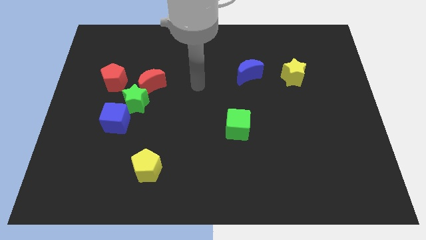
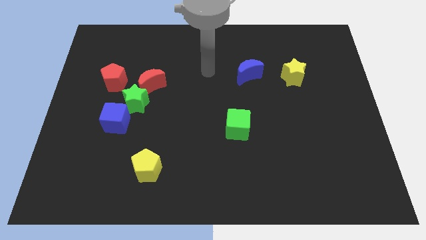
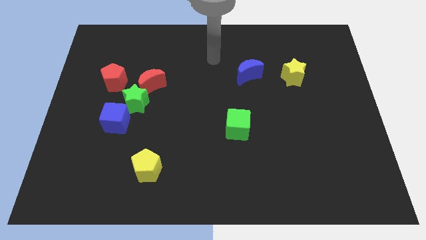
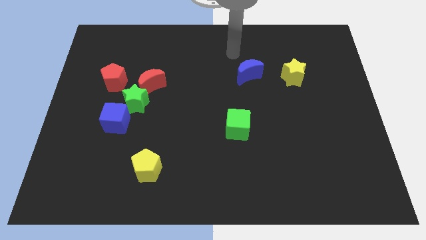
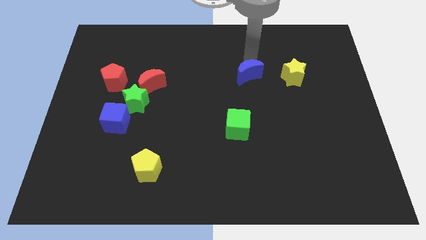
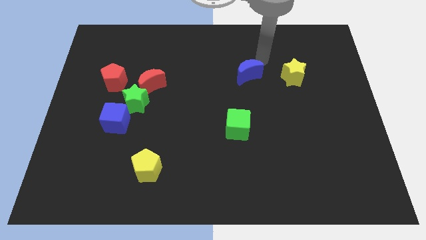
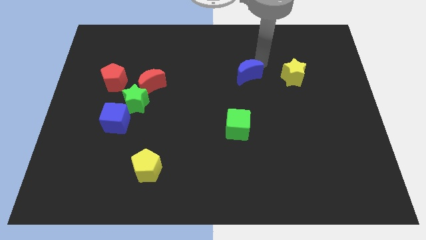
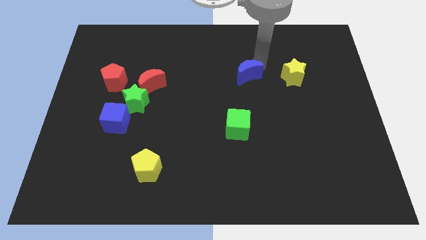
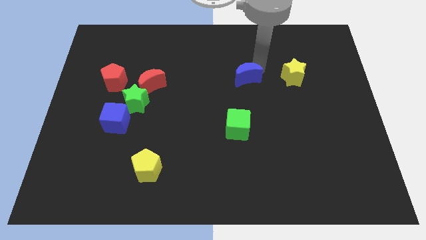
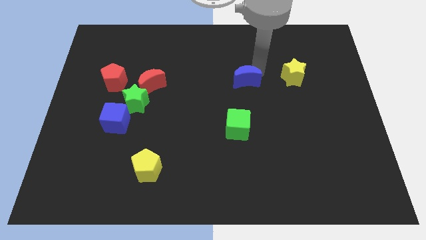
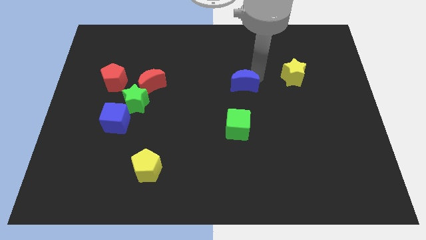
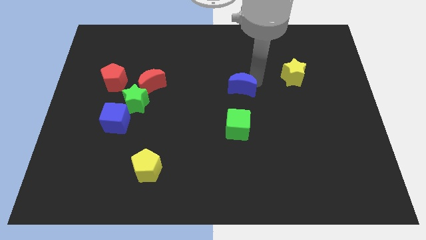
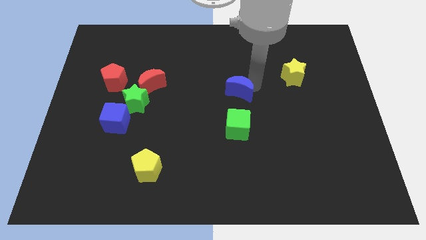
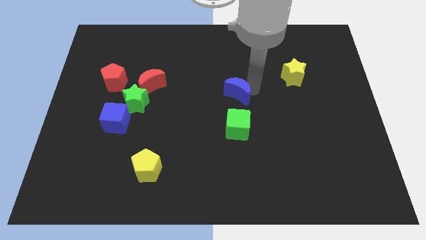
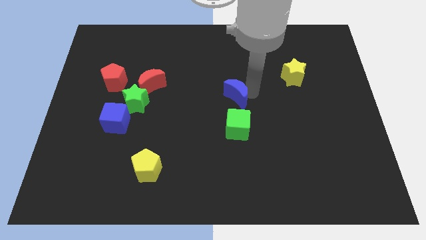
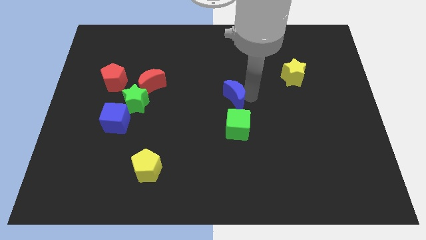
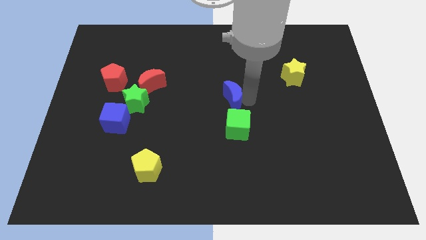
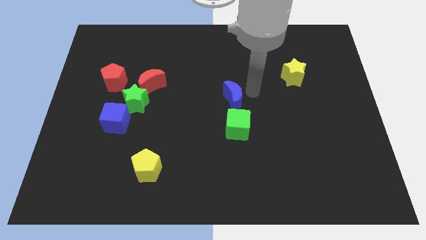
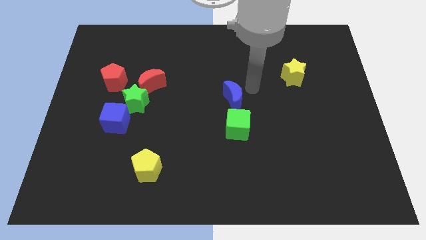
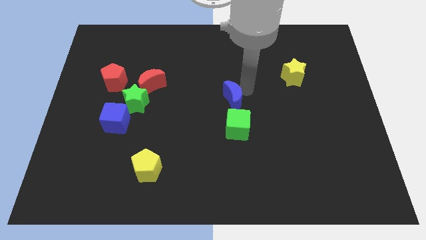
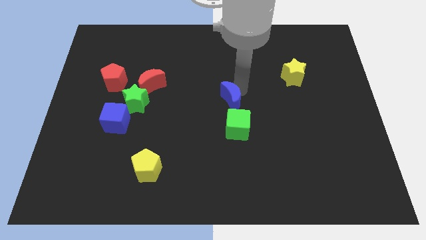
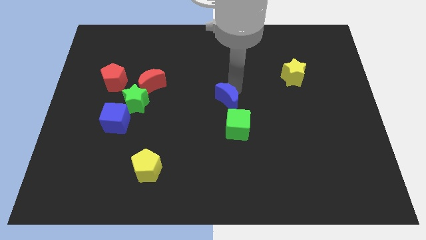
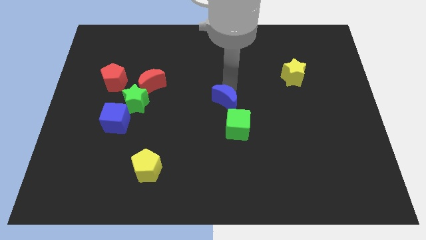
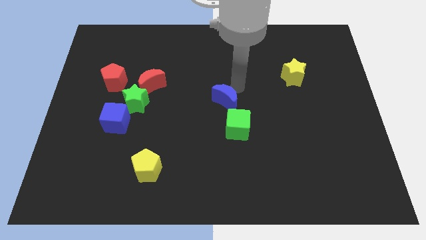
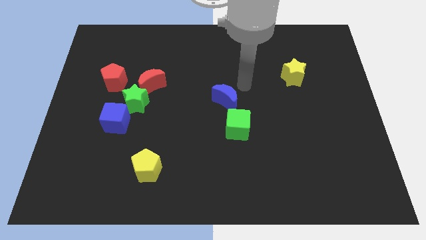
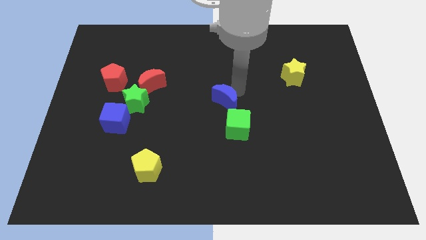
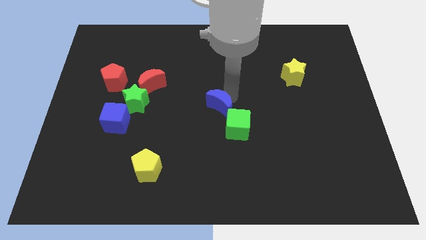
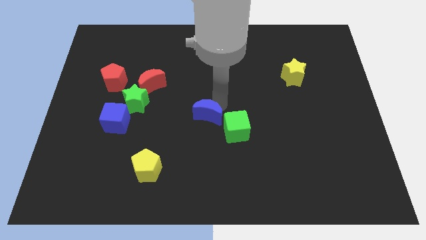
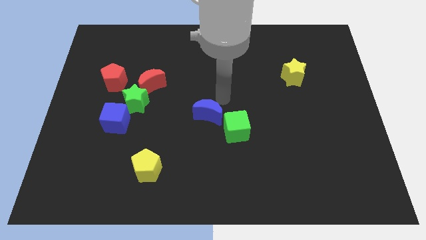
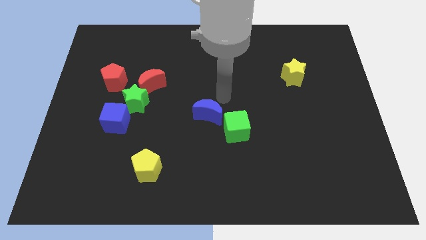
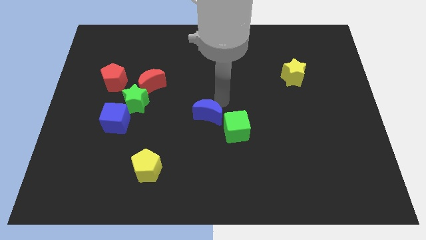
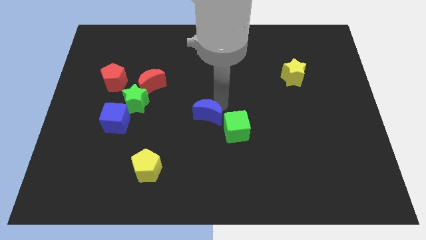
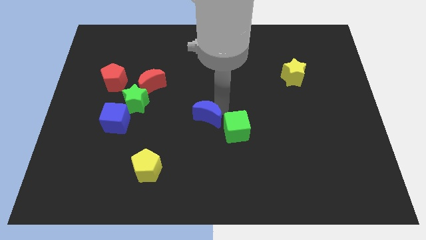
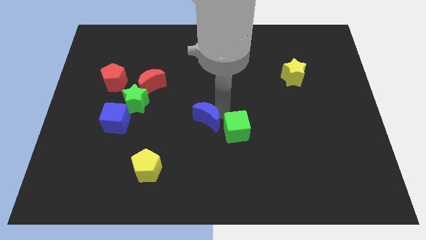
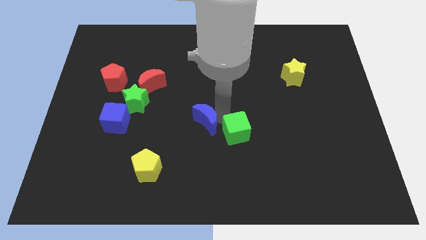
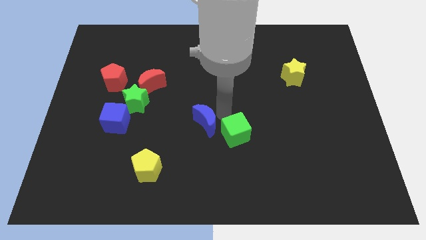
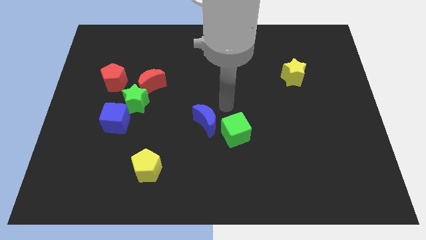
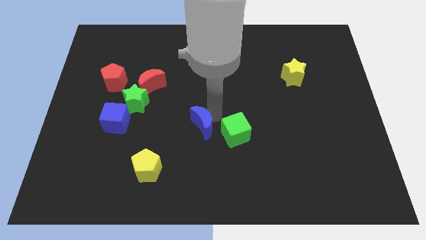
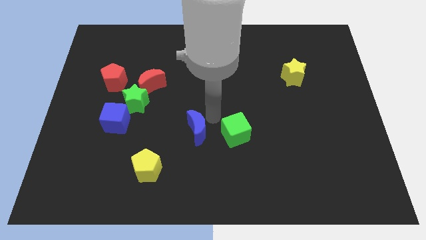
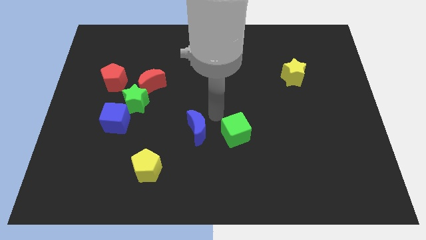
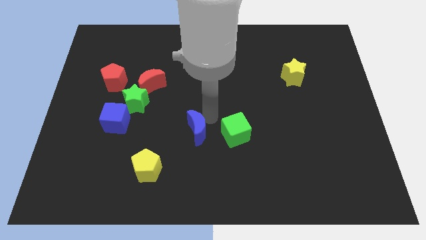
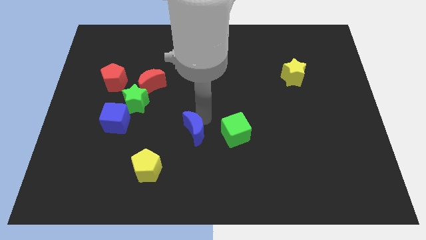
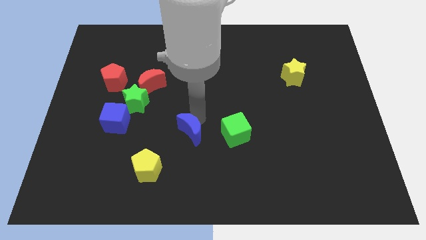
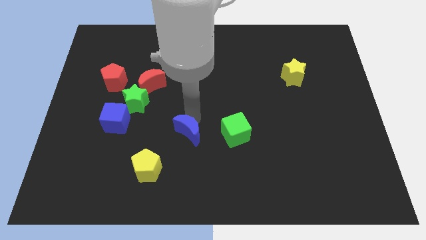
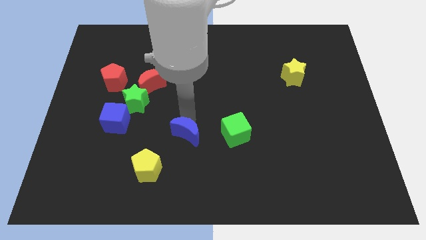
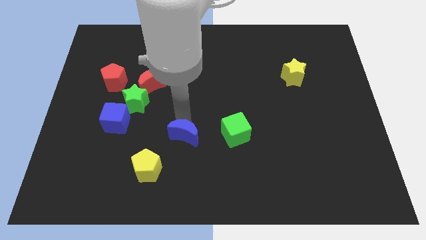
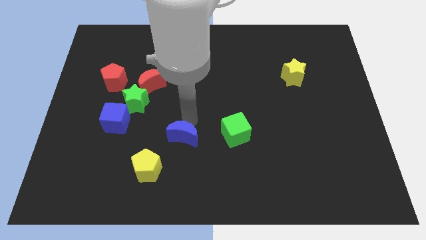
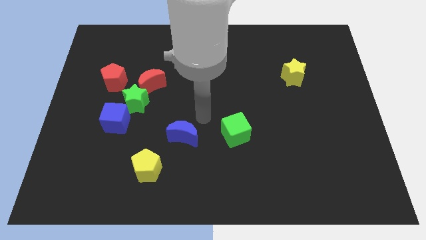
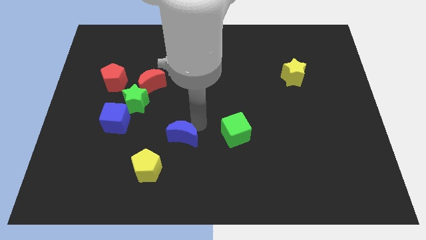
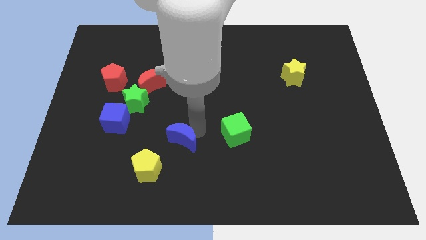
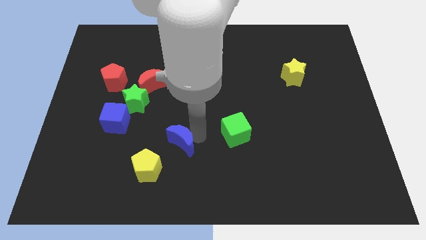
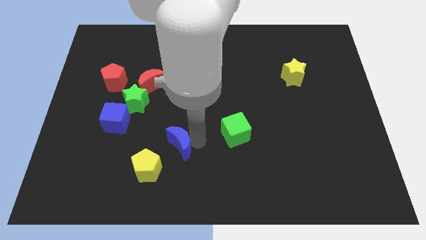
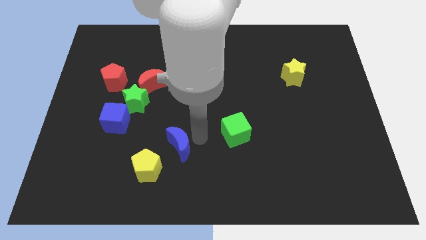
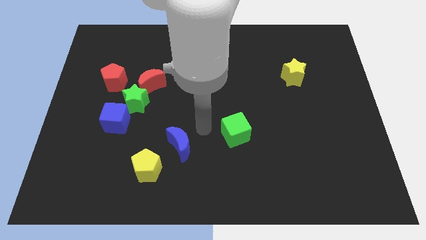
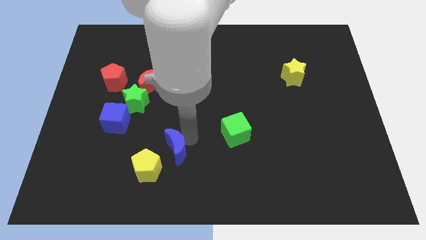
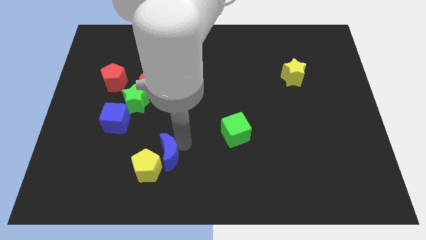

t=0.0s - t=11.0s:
slide the blue moon to the yellow pentagon

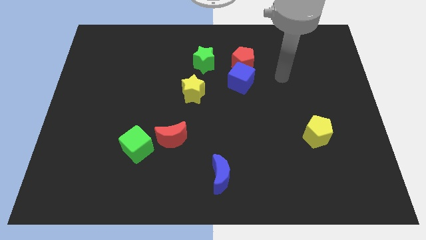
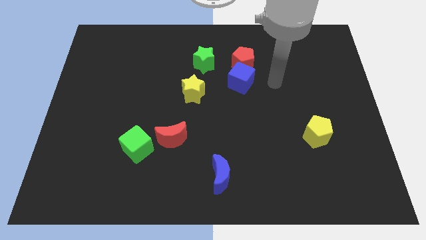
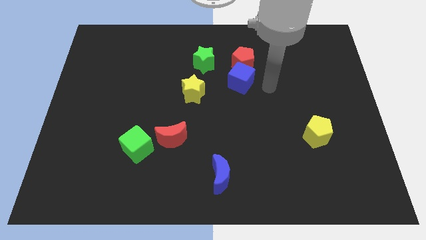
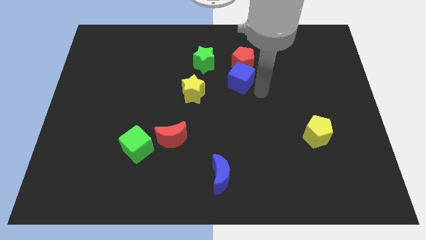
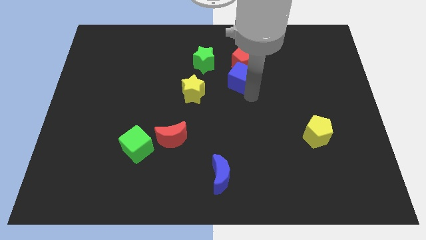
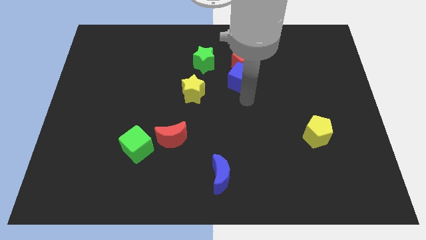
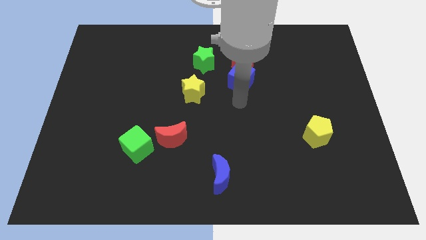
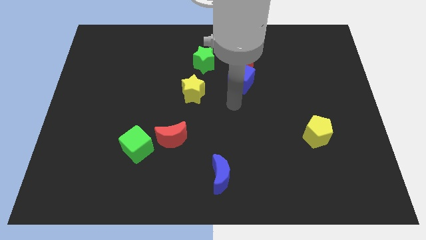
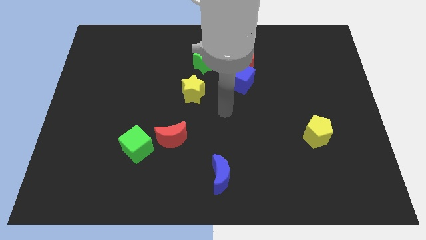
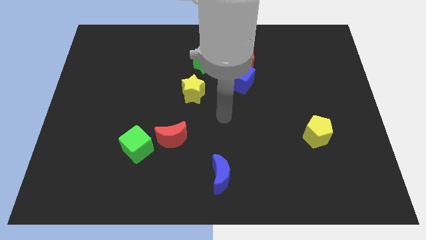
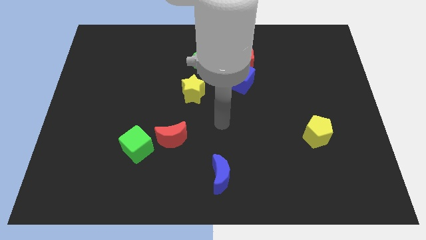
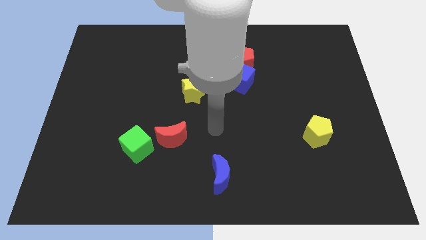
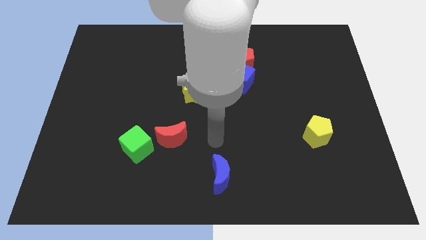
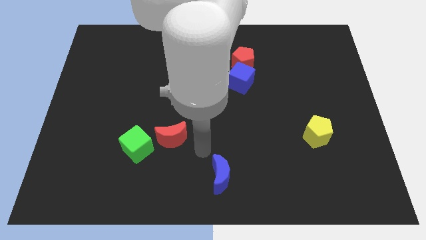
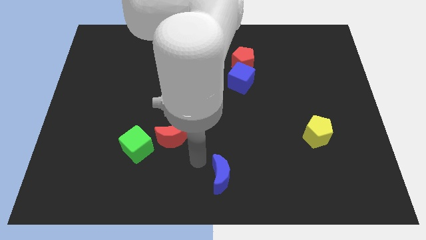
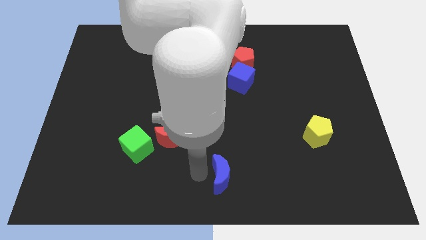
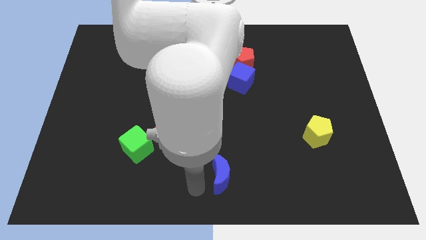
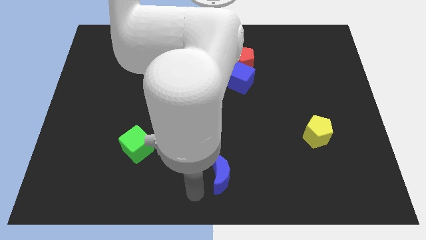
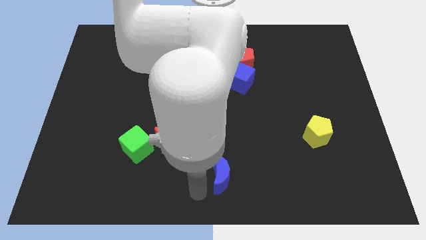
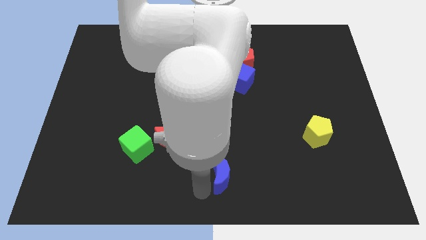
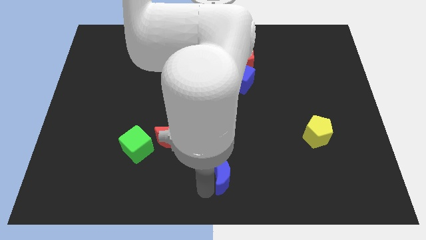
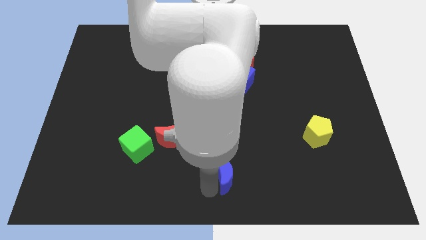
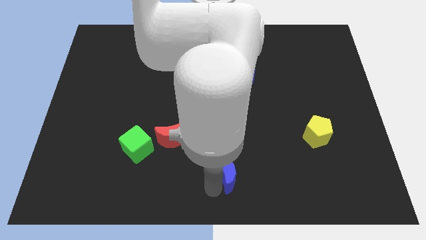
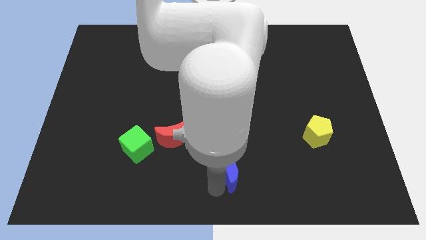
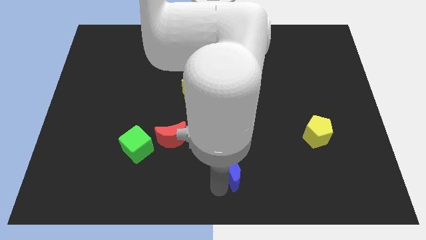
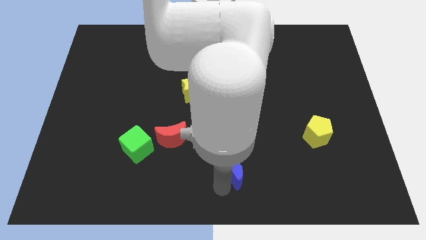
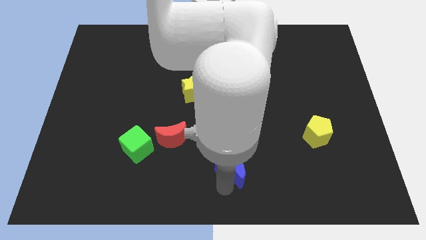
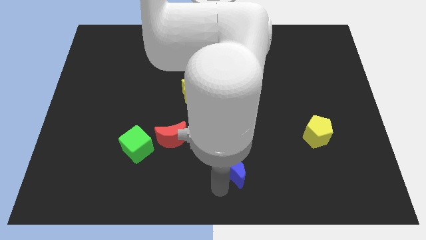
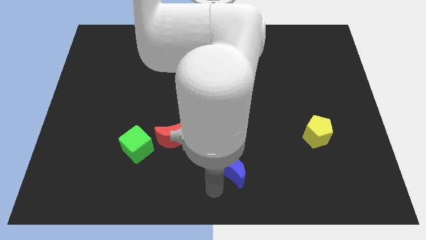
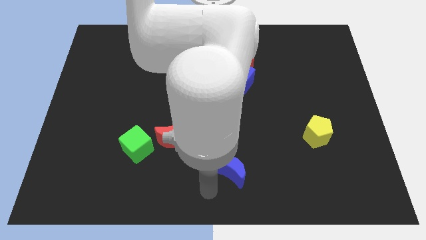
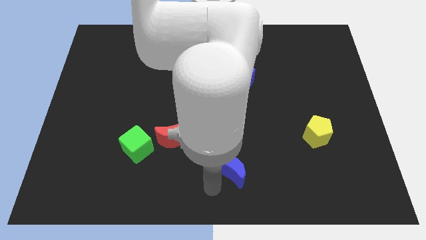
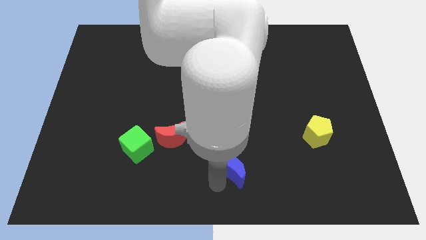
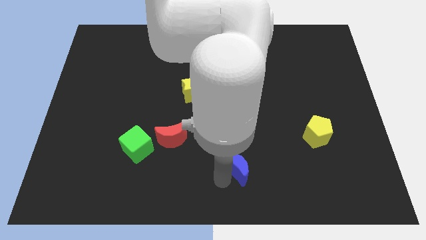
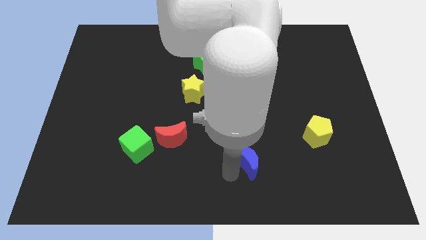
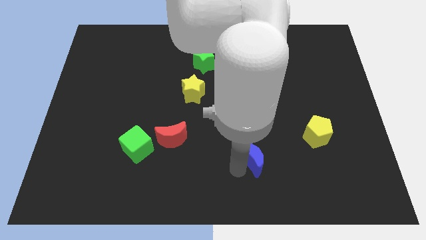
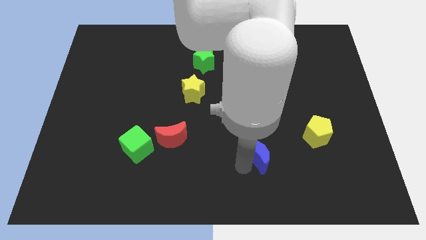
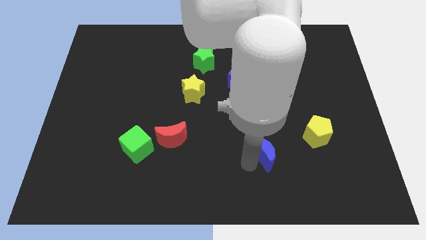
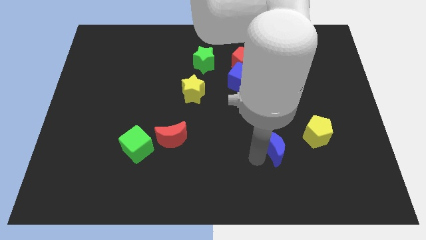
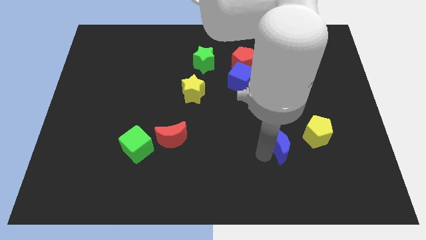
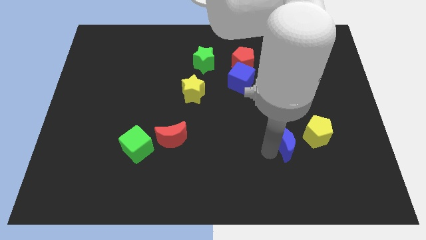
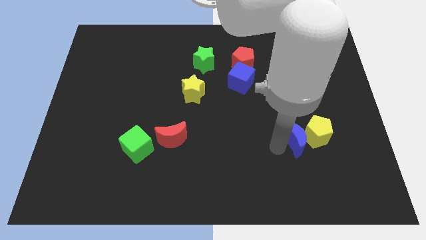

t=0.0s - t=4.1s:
put the blue moon towards the yellow pentagon
